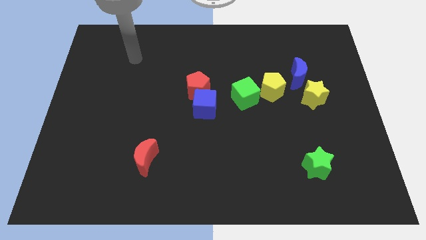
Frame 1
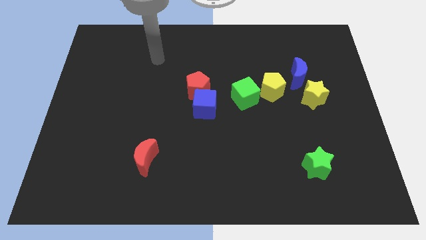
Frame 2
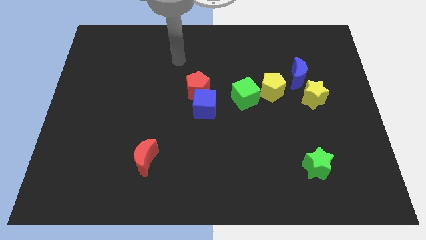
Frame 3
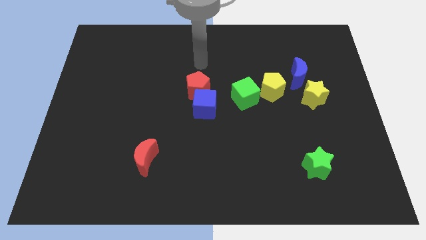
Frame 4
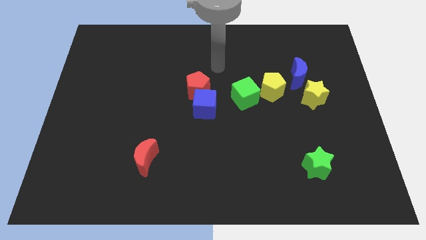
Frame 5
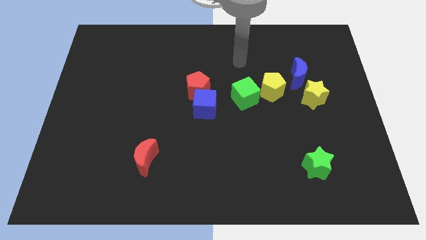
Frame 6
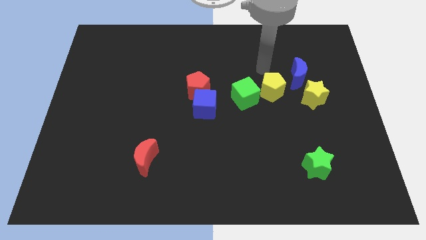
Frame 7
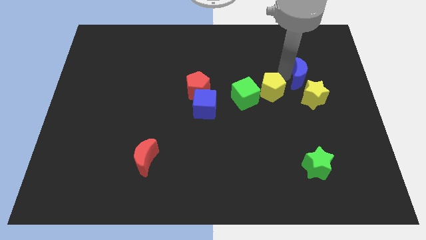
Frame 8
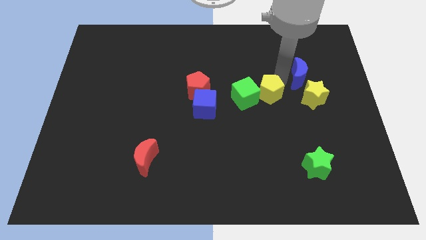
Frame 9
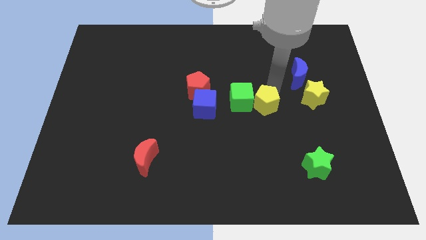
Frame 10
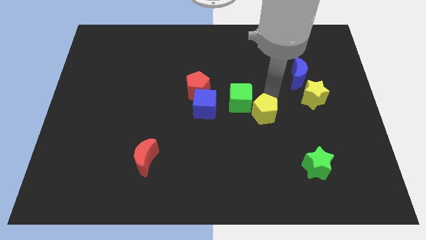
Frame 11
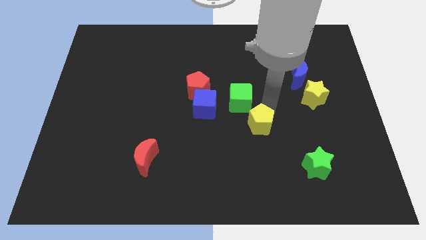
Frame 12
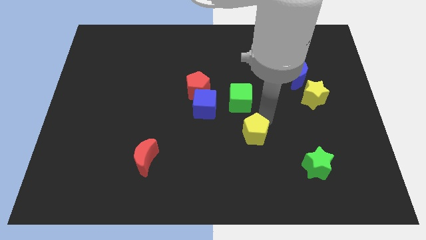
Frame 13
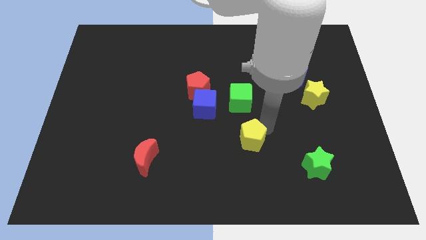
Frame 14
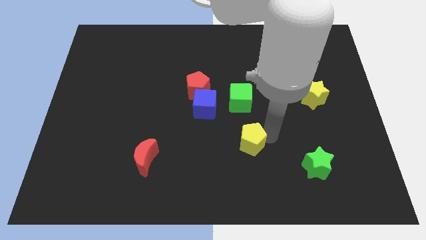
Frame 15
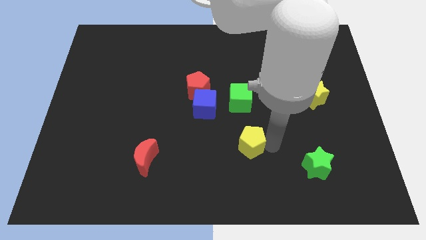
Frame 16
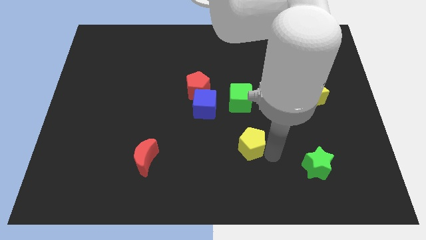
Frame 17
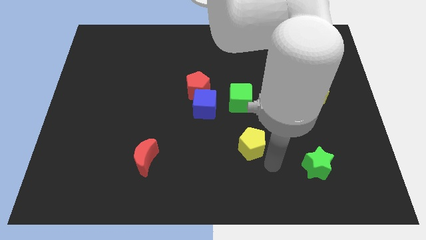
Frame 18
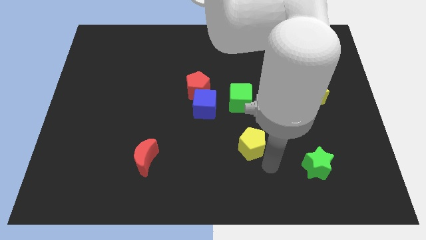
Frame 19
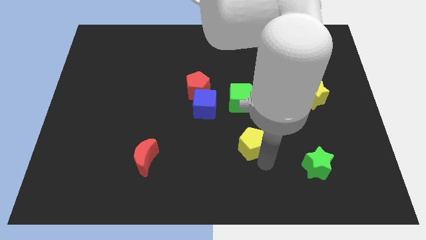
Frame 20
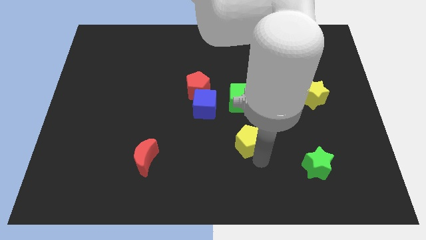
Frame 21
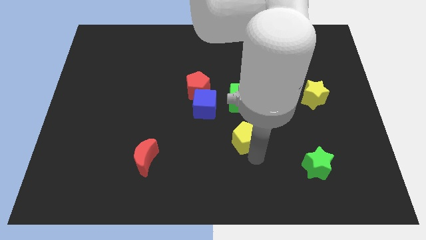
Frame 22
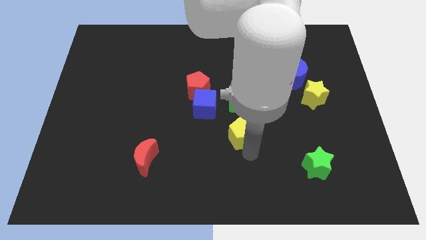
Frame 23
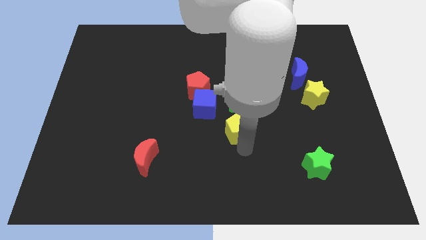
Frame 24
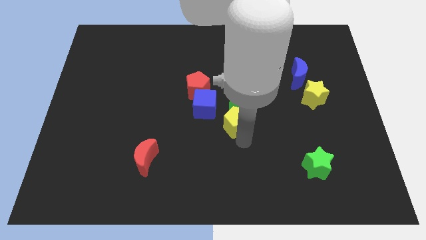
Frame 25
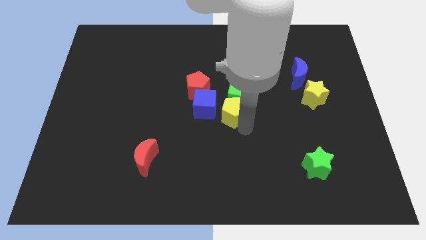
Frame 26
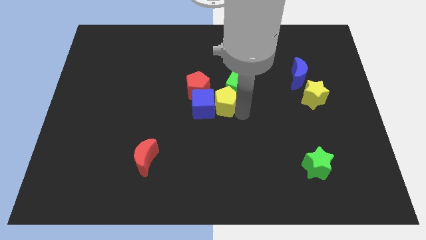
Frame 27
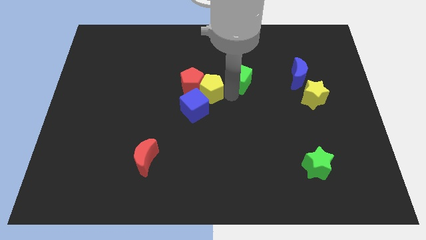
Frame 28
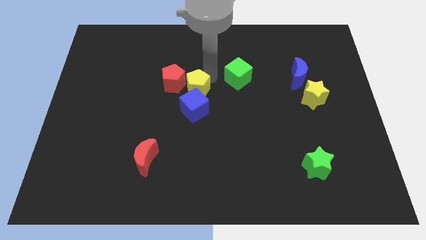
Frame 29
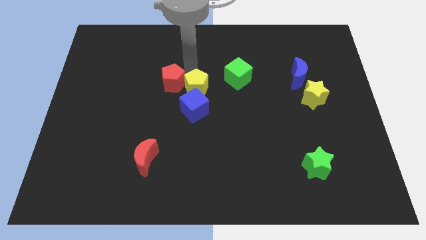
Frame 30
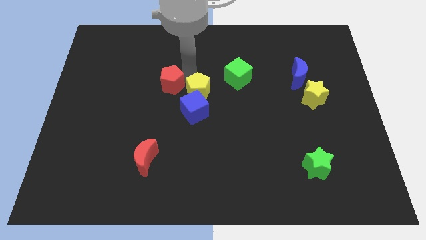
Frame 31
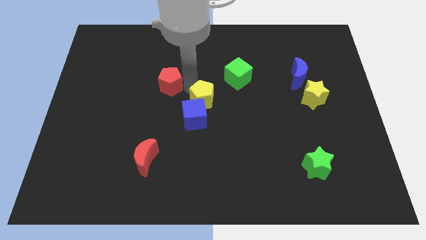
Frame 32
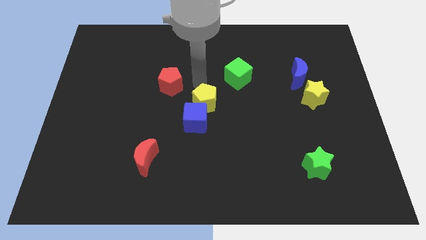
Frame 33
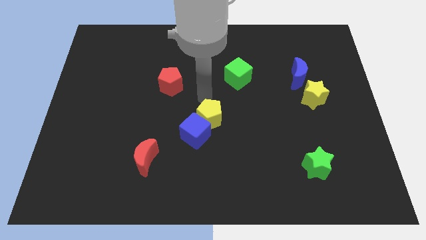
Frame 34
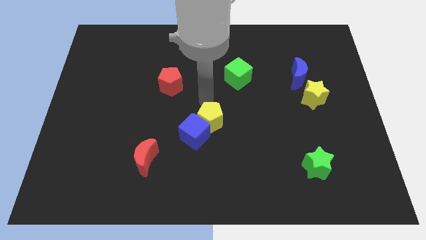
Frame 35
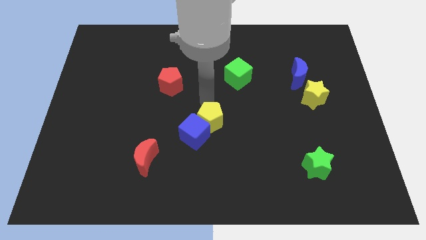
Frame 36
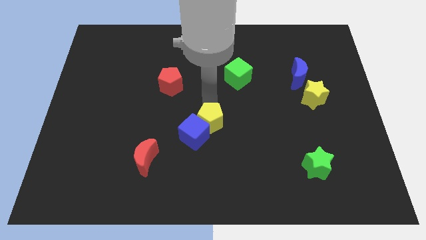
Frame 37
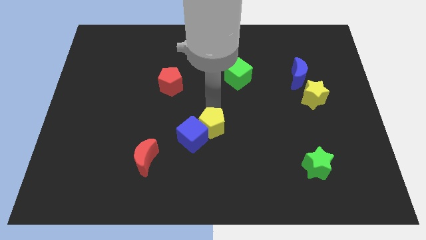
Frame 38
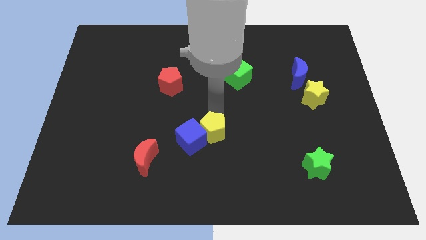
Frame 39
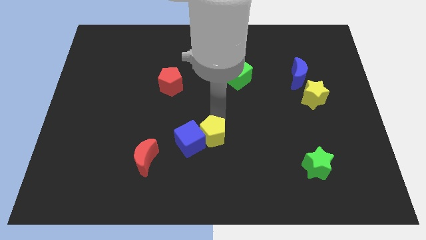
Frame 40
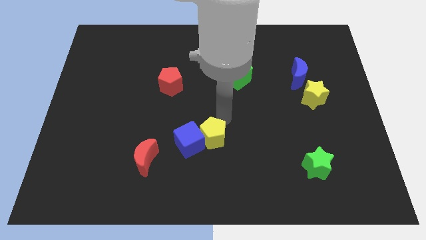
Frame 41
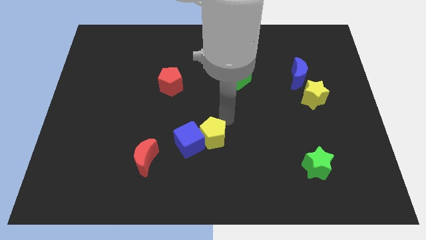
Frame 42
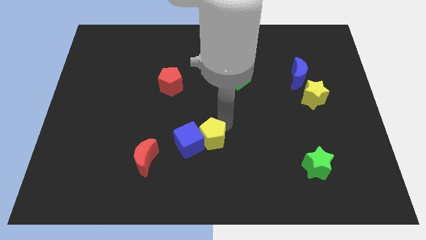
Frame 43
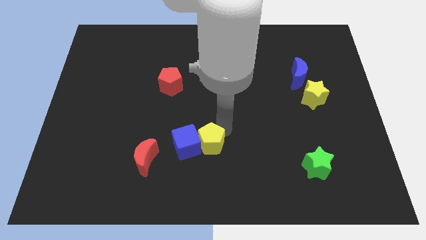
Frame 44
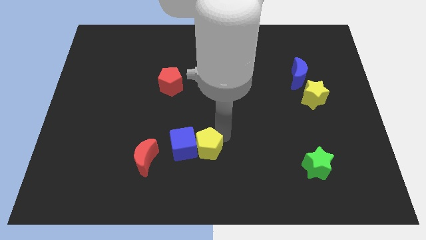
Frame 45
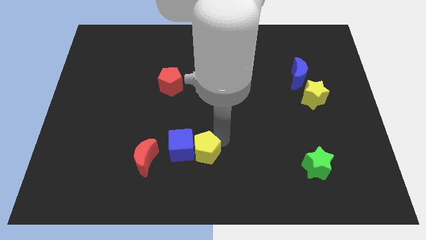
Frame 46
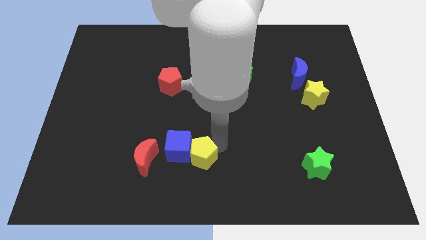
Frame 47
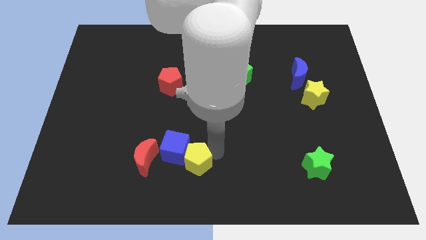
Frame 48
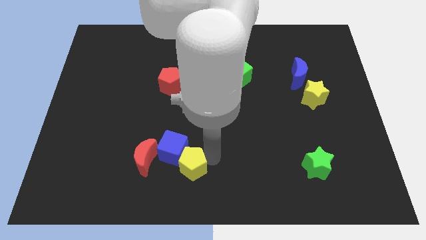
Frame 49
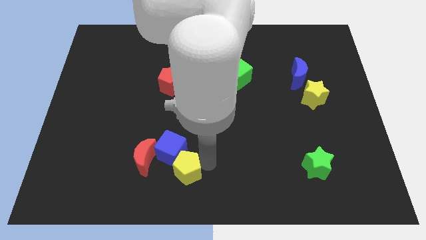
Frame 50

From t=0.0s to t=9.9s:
move the yellow pentagon diagonally down and to the right of the red moon

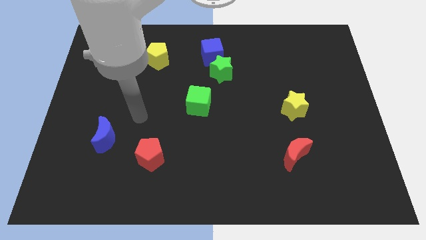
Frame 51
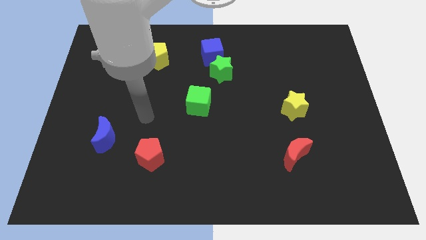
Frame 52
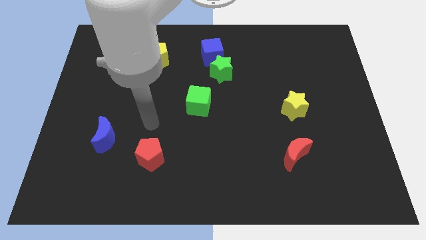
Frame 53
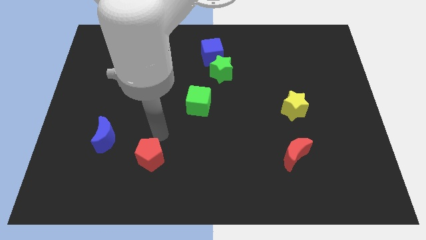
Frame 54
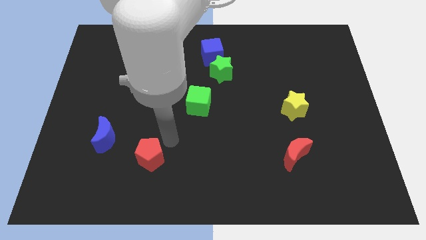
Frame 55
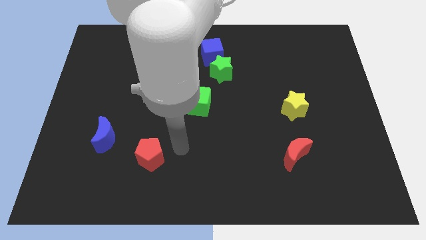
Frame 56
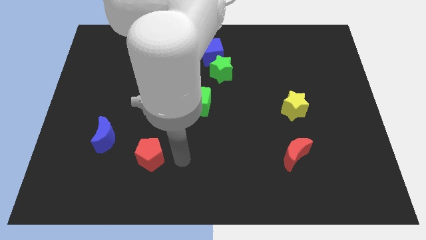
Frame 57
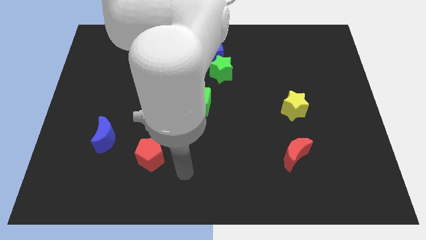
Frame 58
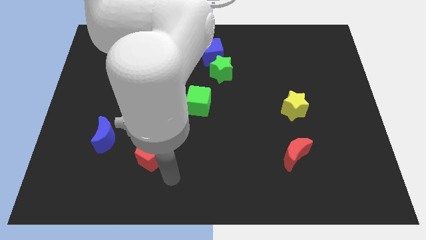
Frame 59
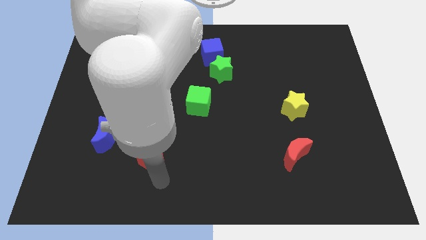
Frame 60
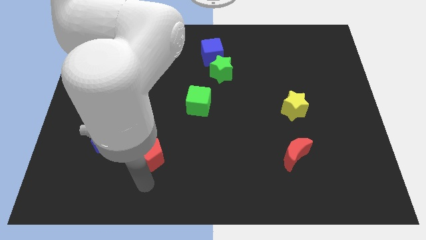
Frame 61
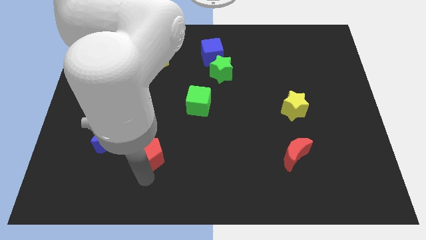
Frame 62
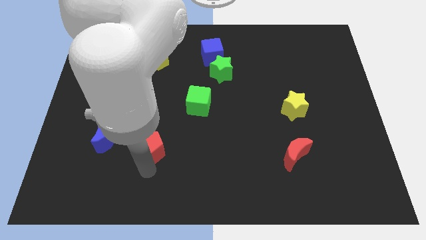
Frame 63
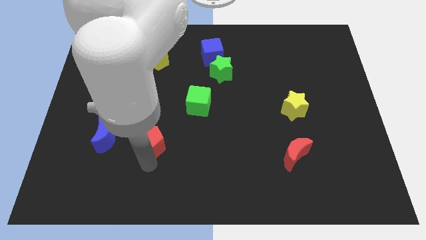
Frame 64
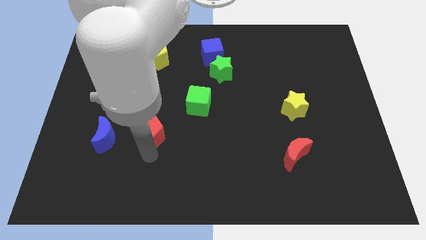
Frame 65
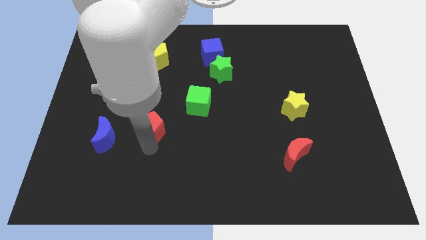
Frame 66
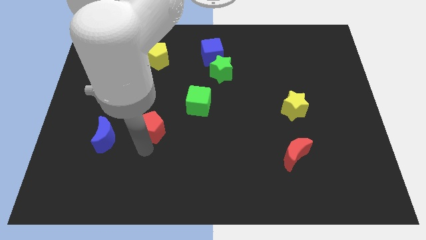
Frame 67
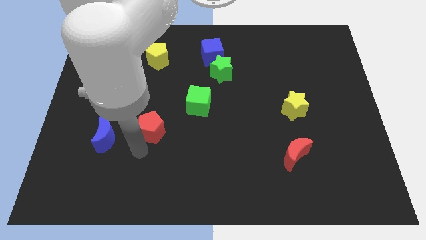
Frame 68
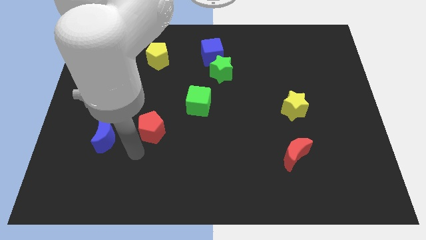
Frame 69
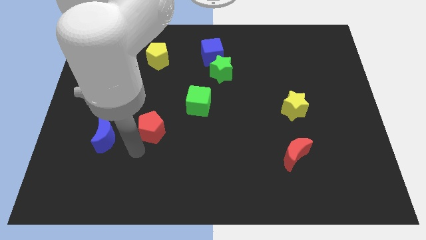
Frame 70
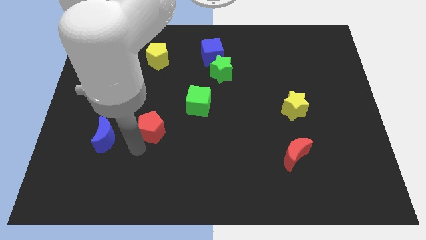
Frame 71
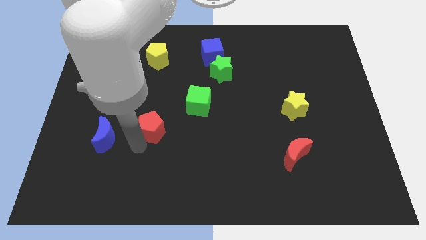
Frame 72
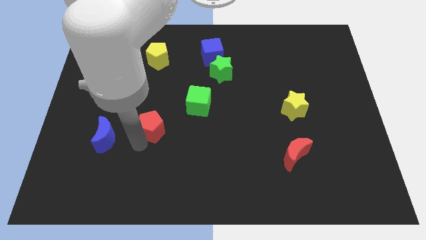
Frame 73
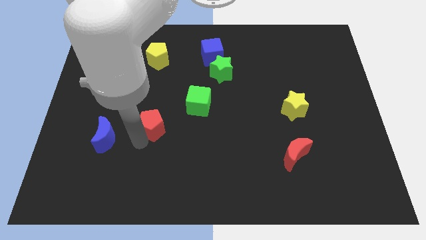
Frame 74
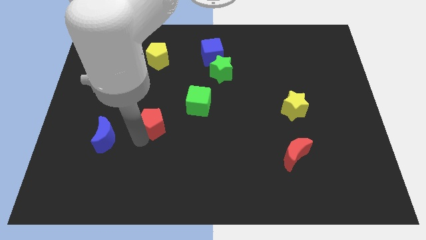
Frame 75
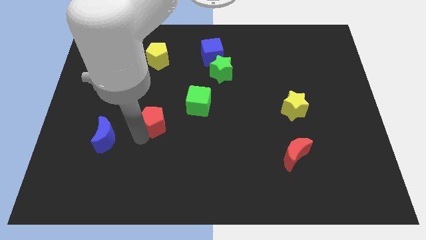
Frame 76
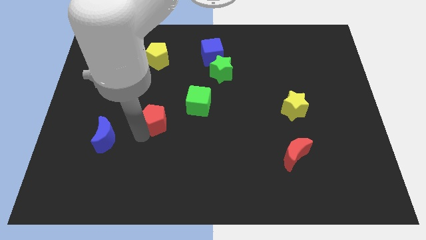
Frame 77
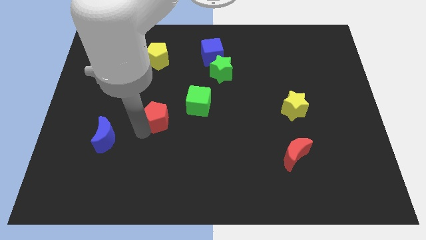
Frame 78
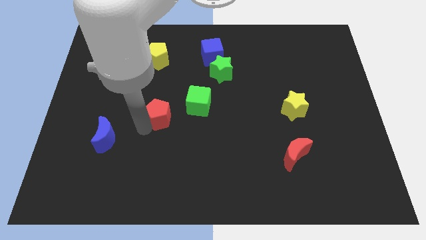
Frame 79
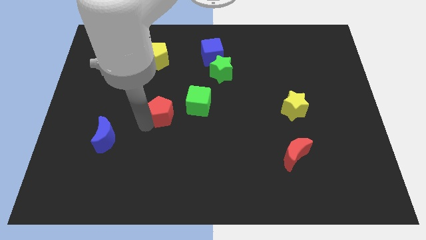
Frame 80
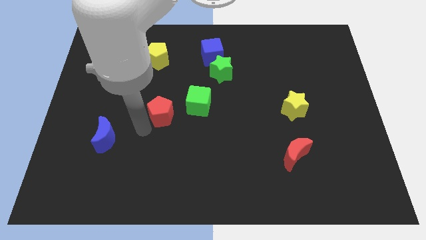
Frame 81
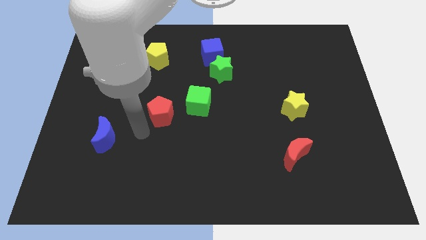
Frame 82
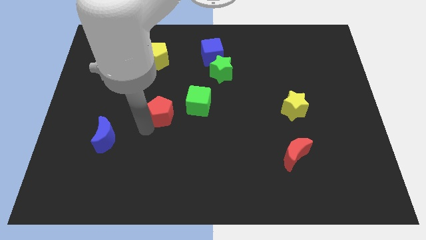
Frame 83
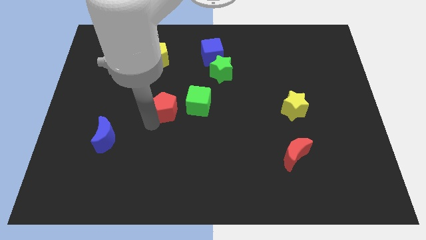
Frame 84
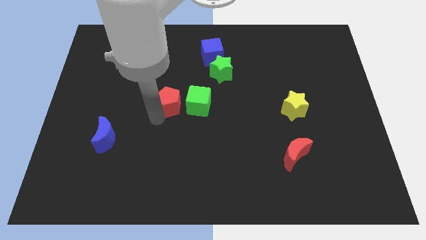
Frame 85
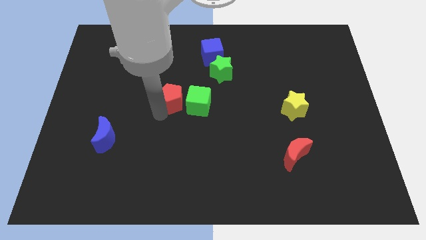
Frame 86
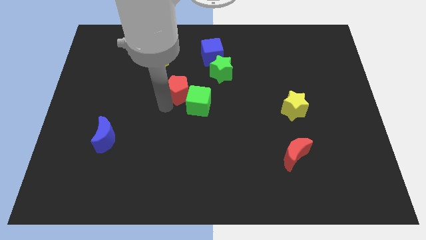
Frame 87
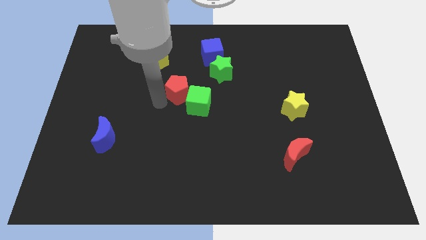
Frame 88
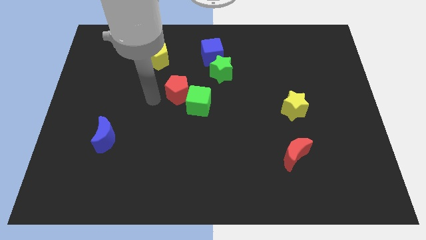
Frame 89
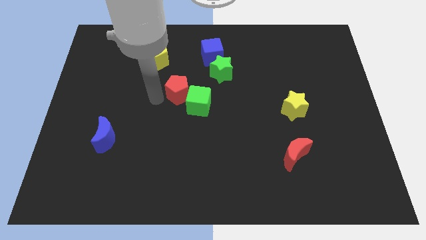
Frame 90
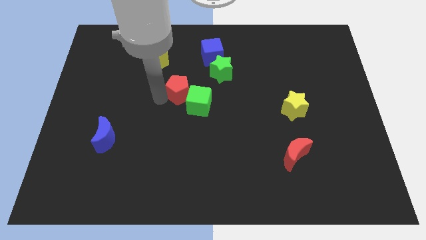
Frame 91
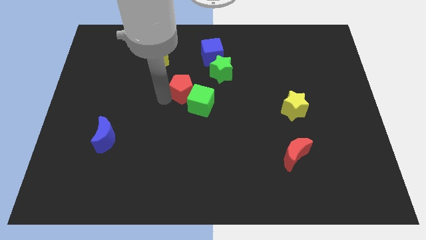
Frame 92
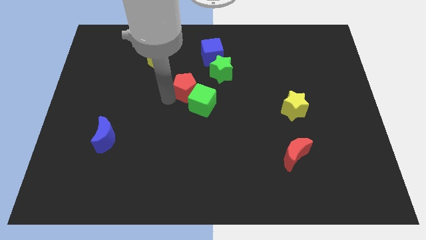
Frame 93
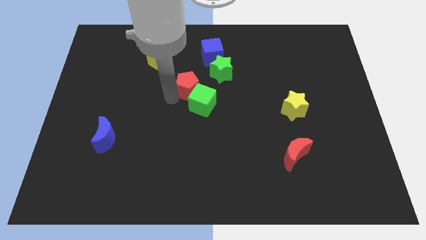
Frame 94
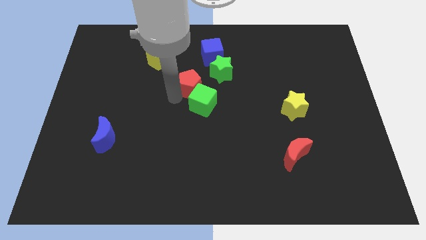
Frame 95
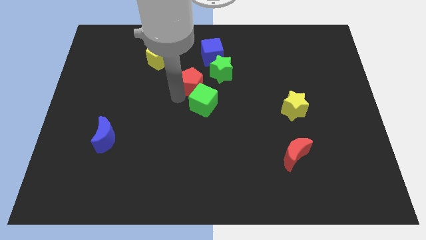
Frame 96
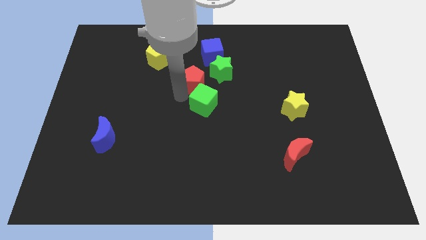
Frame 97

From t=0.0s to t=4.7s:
move the red pentagon below the blue cube
